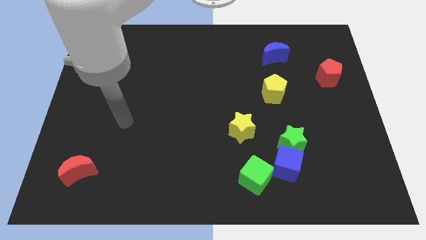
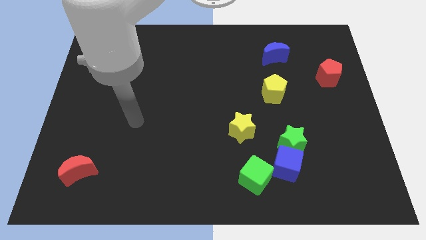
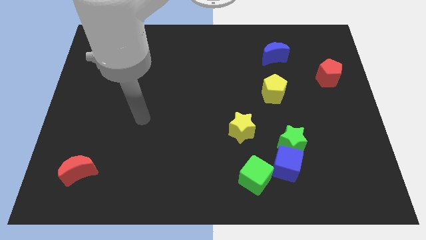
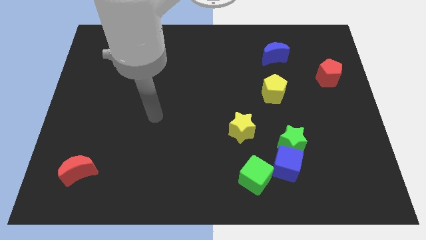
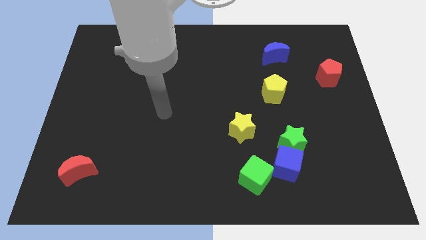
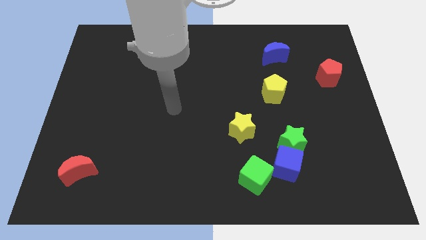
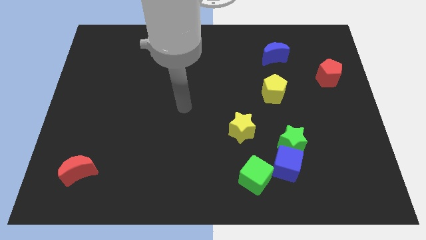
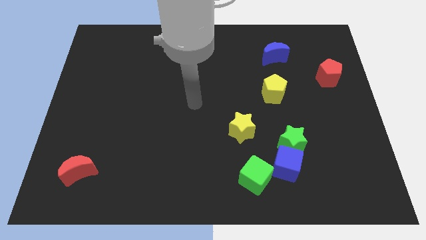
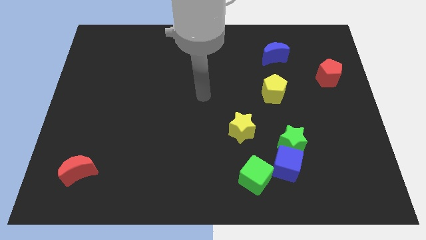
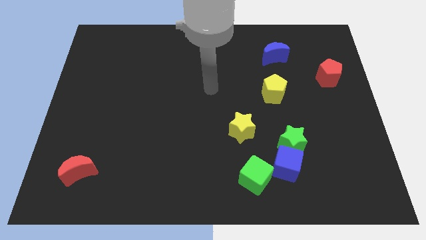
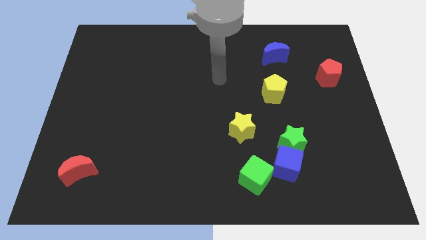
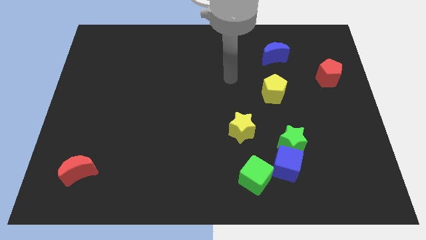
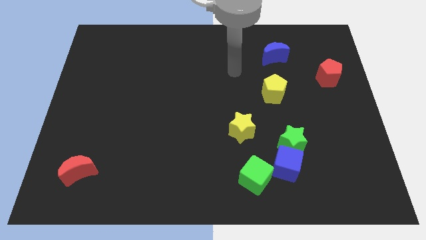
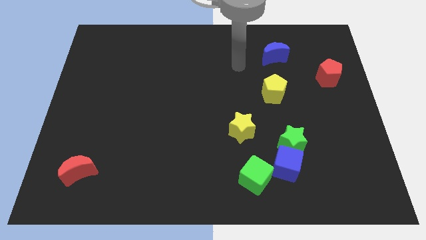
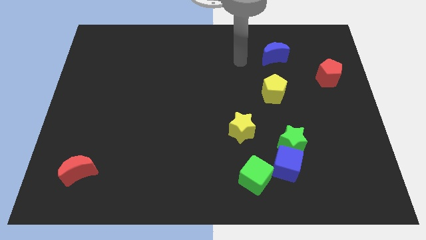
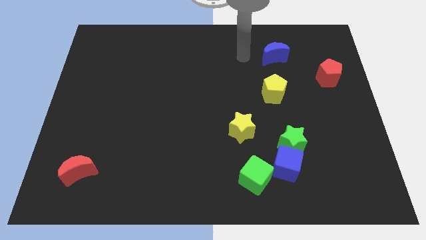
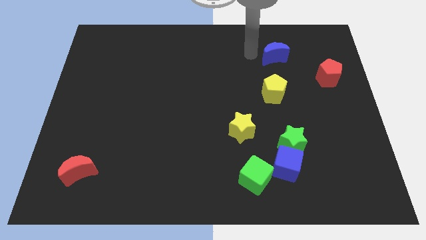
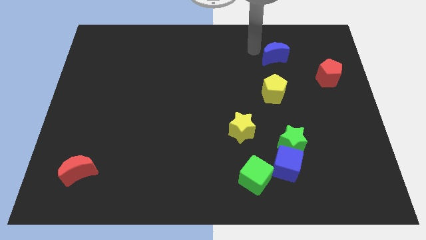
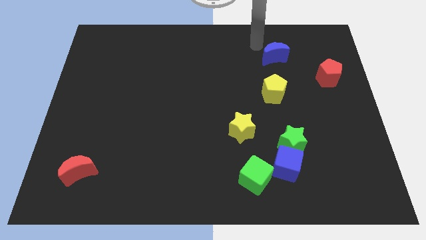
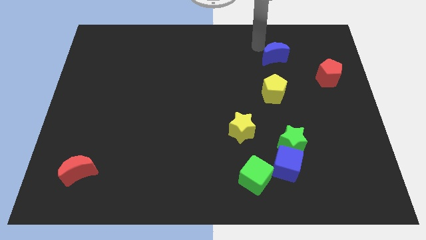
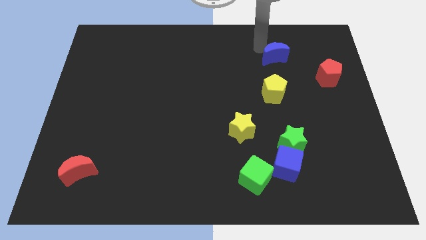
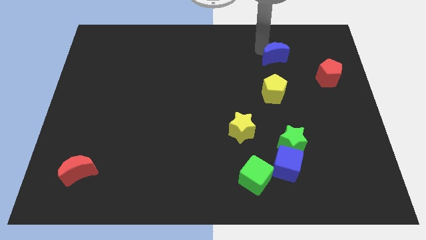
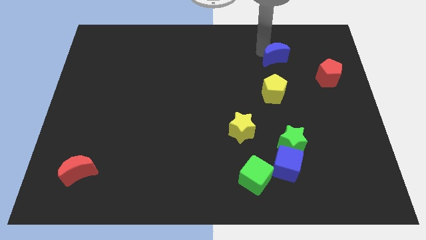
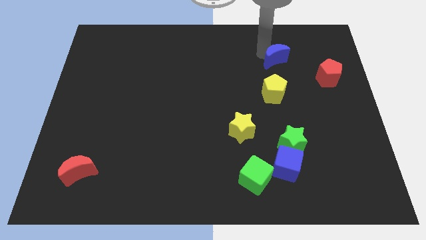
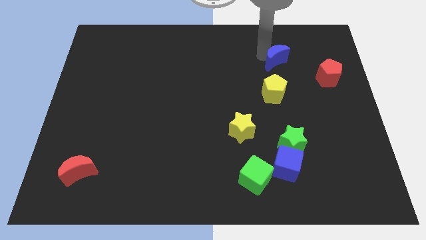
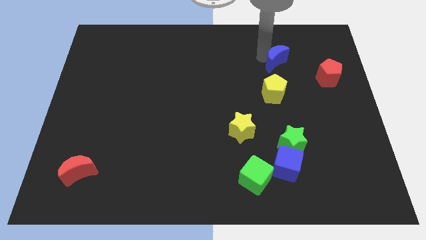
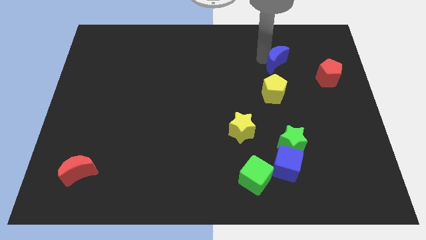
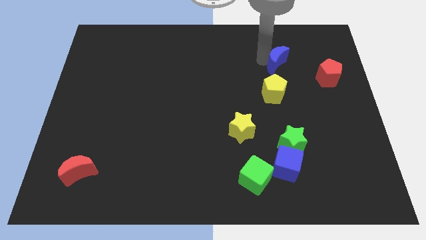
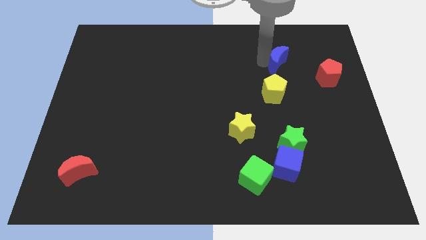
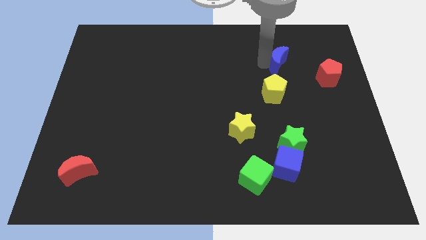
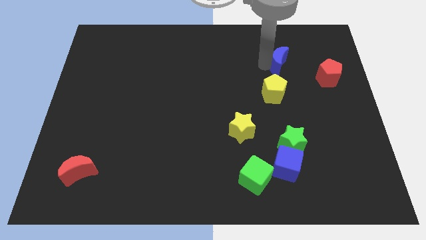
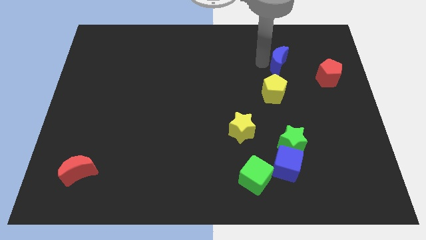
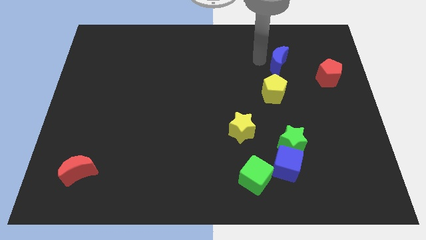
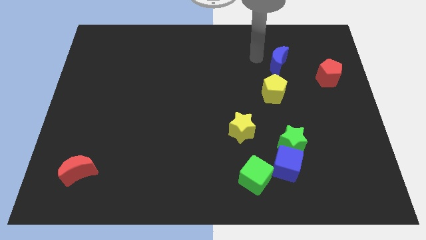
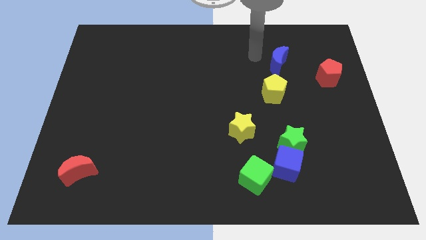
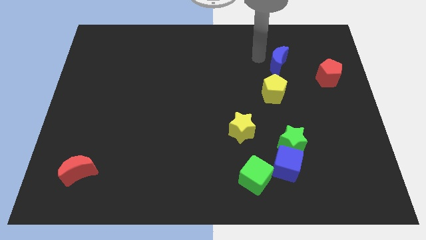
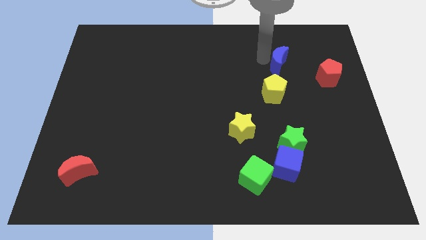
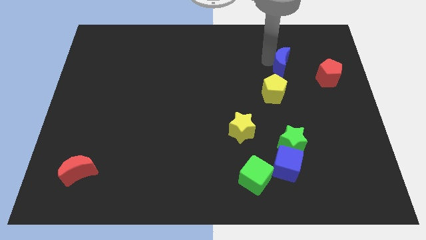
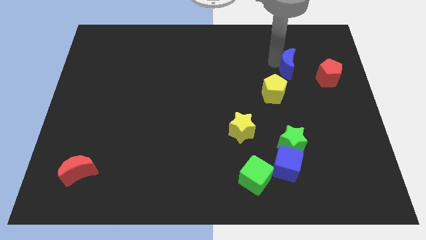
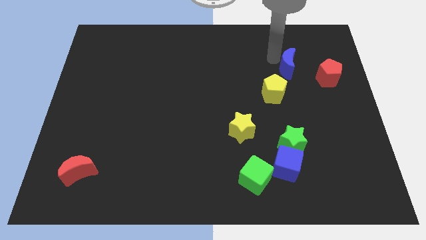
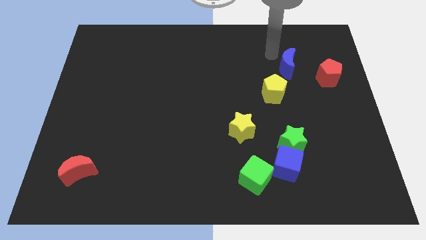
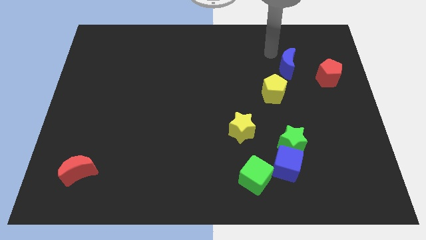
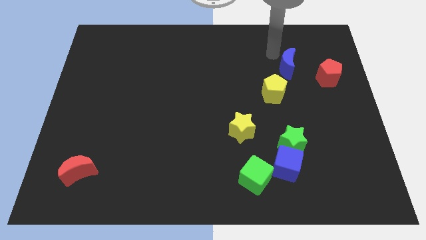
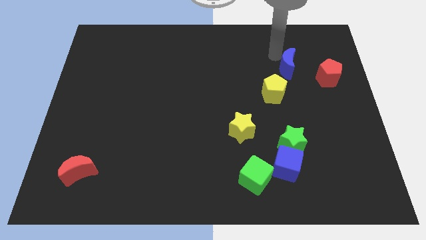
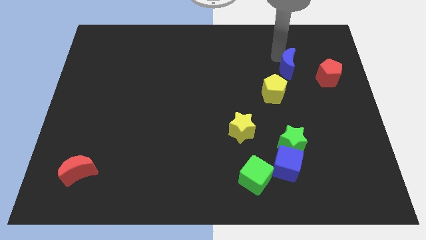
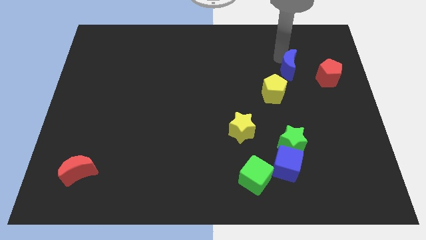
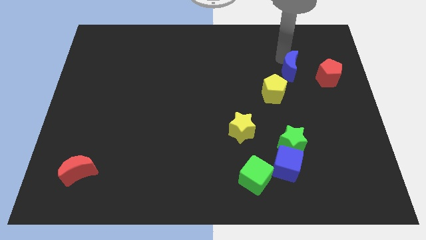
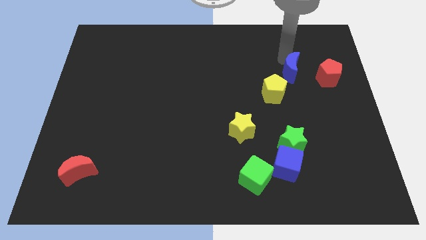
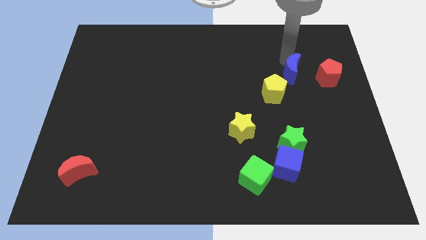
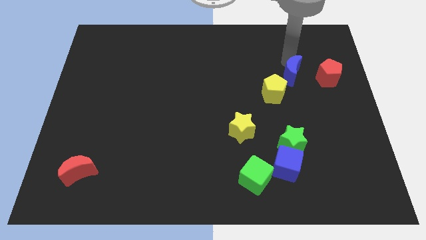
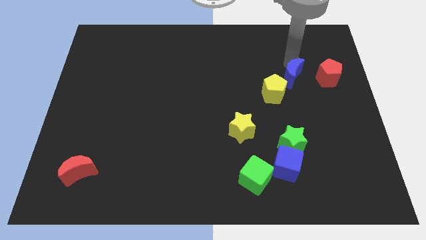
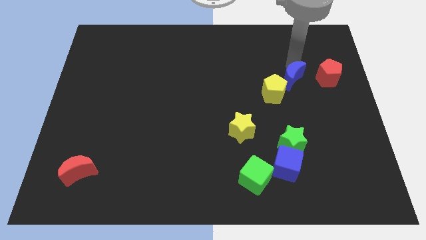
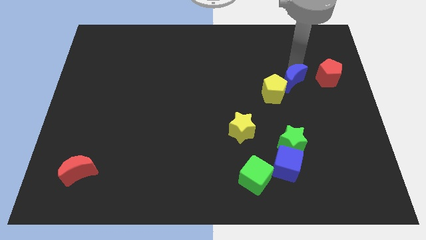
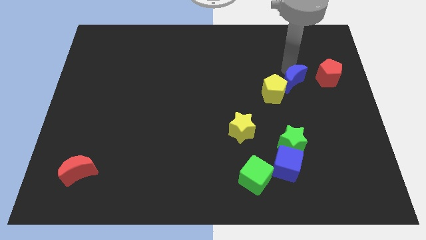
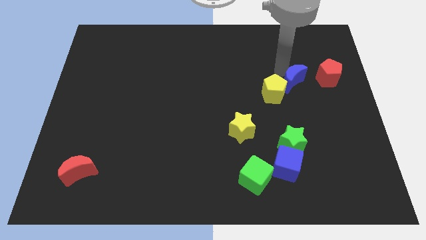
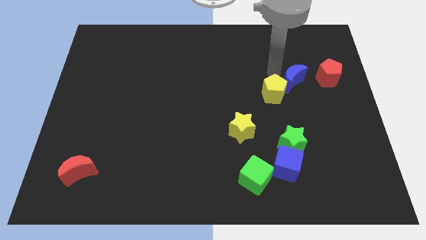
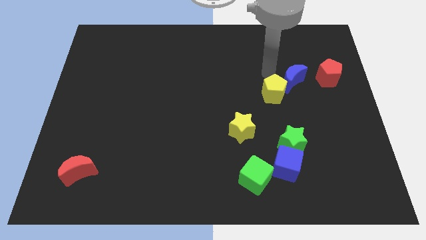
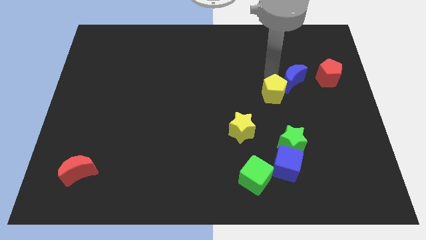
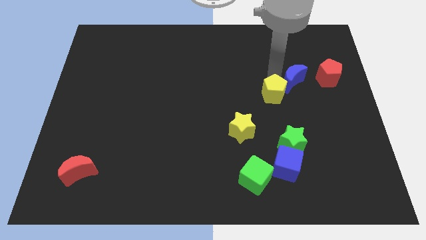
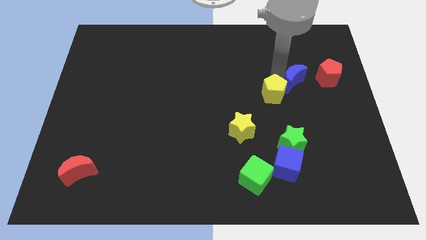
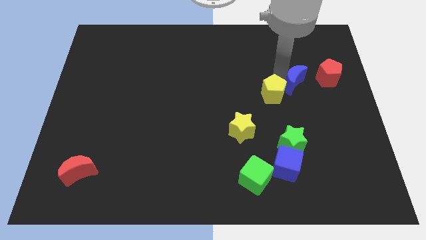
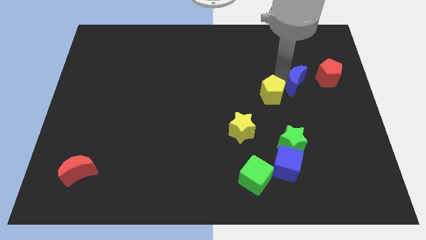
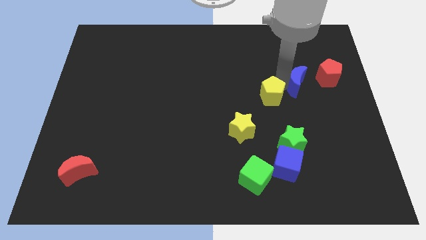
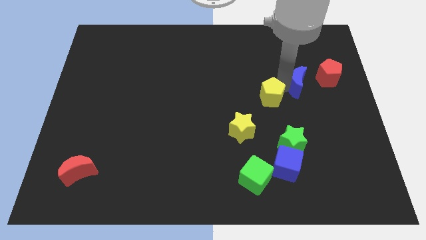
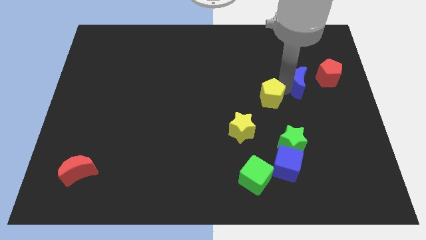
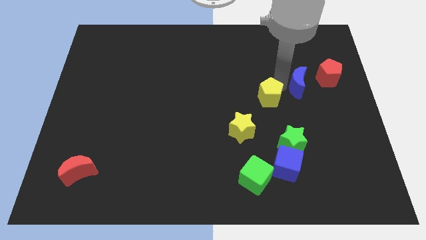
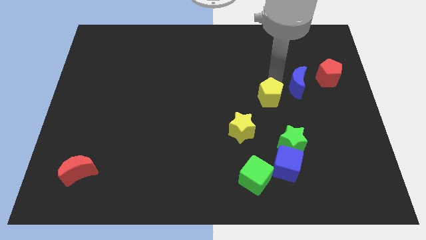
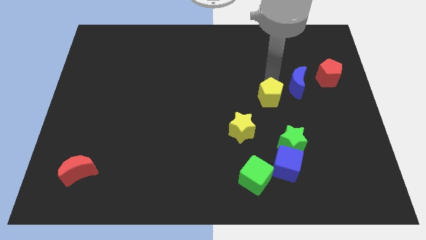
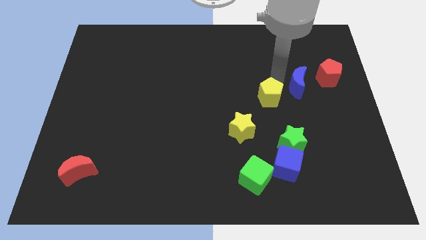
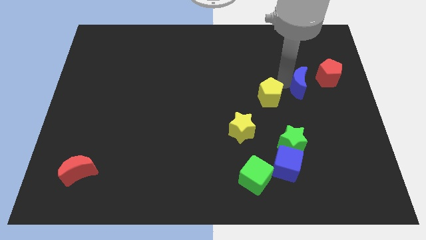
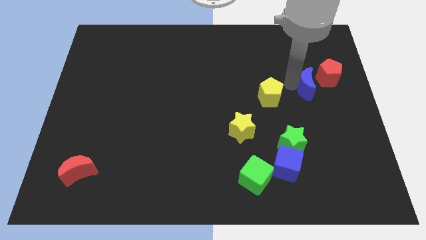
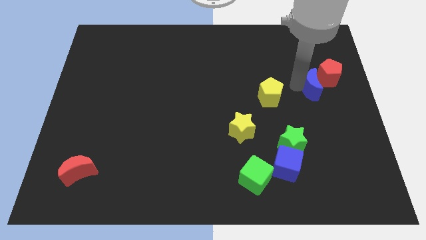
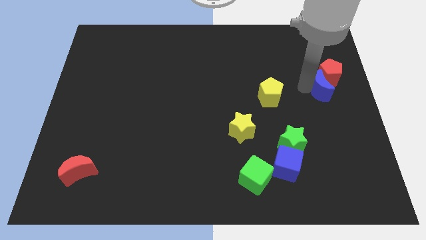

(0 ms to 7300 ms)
put the blue moon to the right side of the board
